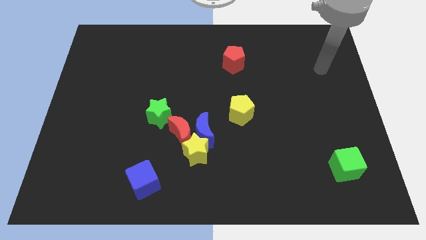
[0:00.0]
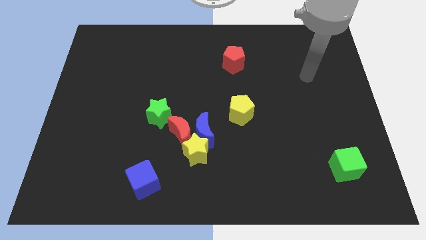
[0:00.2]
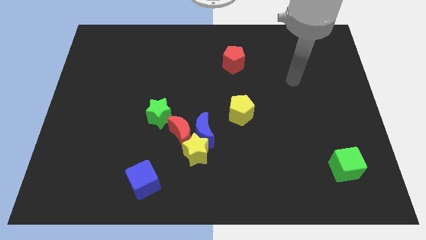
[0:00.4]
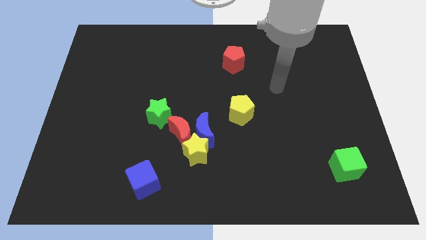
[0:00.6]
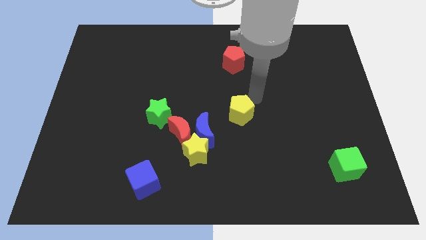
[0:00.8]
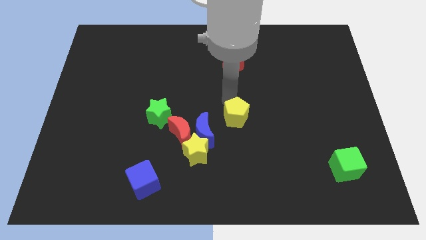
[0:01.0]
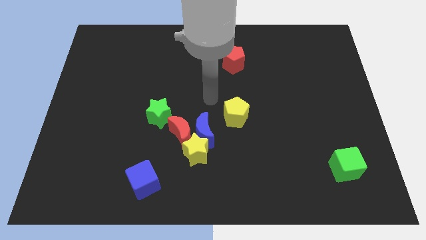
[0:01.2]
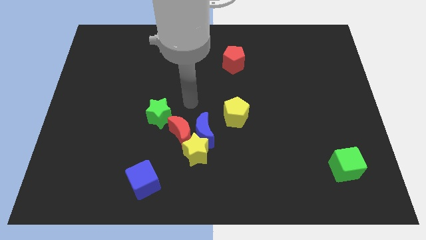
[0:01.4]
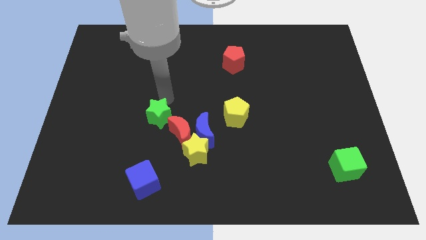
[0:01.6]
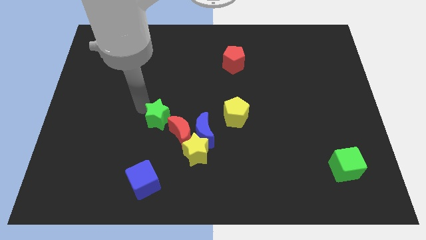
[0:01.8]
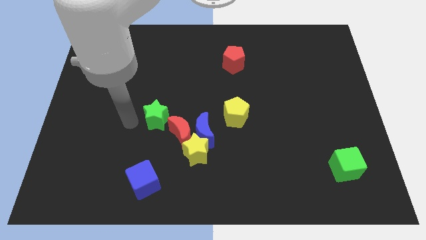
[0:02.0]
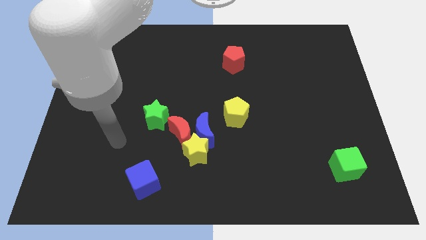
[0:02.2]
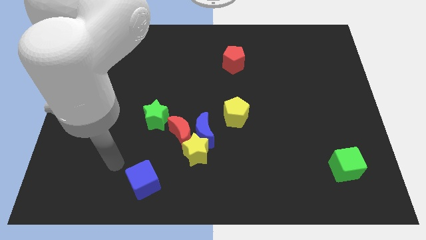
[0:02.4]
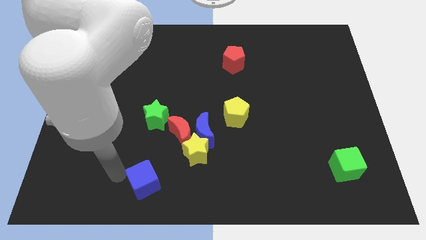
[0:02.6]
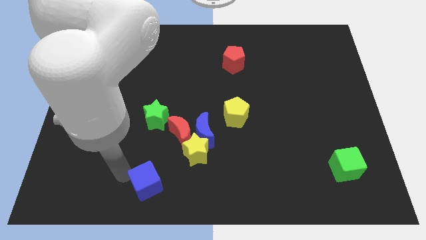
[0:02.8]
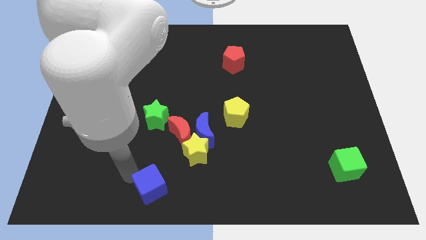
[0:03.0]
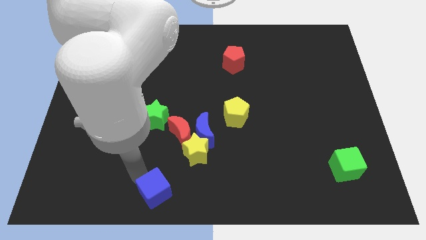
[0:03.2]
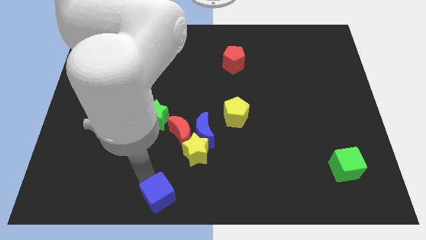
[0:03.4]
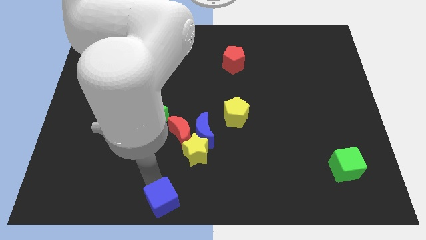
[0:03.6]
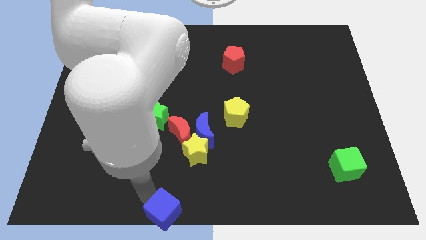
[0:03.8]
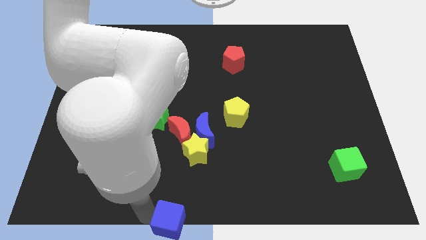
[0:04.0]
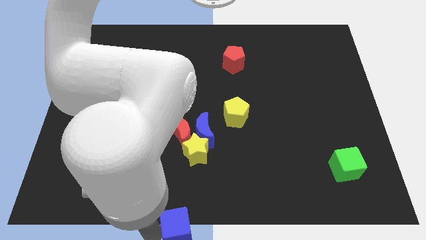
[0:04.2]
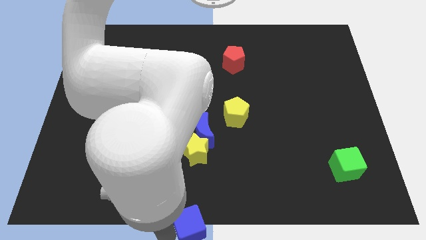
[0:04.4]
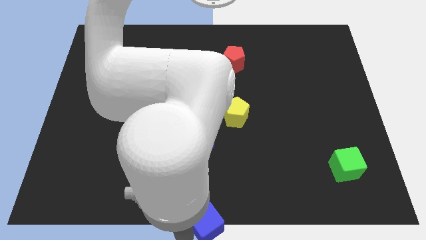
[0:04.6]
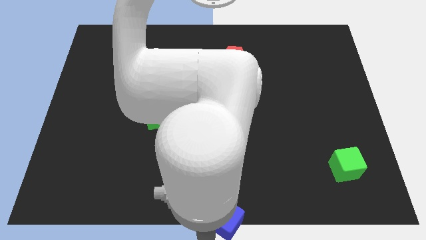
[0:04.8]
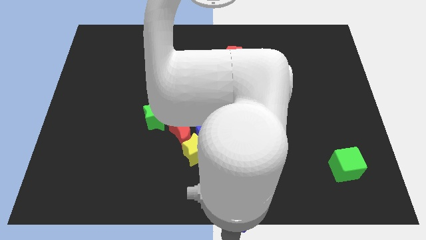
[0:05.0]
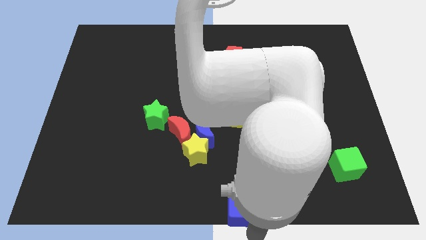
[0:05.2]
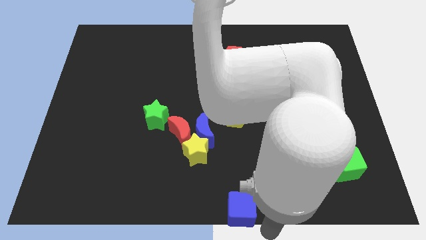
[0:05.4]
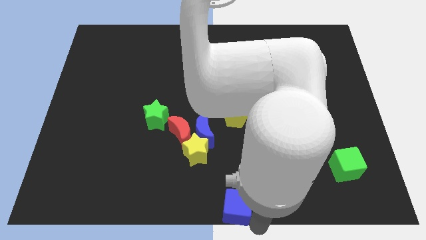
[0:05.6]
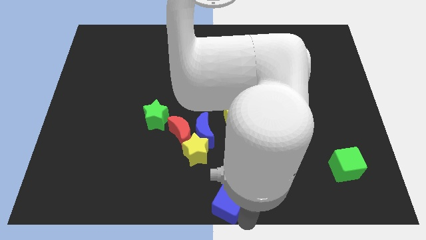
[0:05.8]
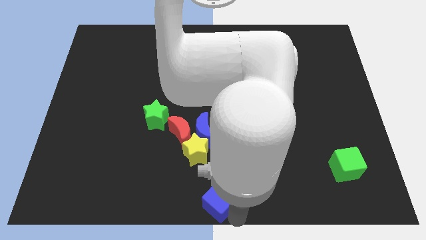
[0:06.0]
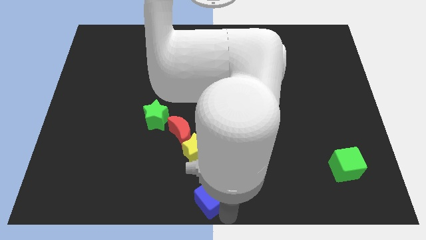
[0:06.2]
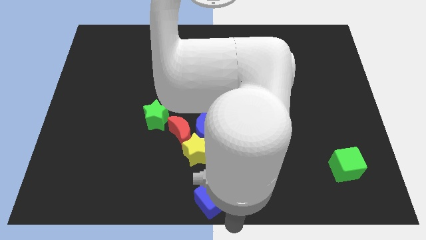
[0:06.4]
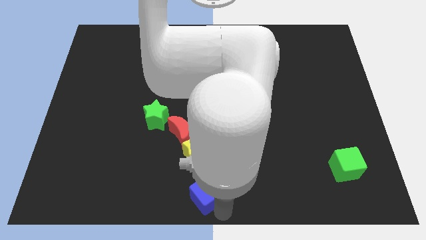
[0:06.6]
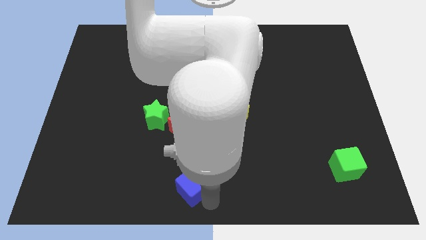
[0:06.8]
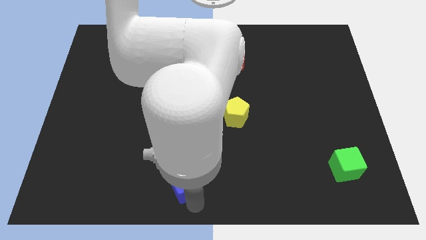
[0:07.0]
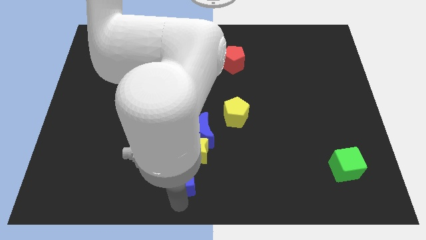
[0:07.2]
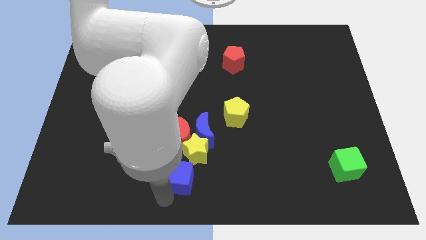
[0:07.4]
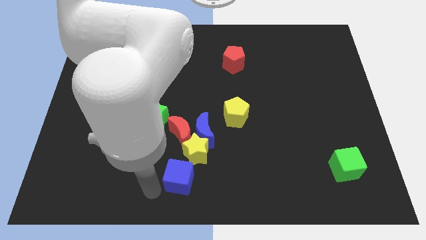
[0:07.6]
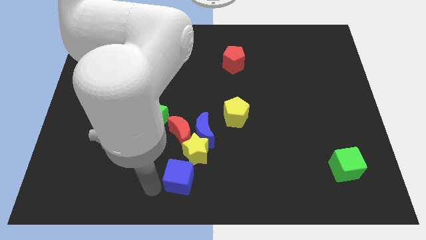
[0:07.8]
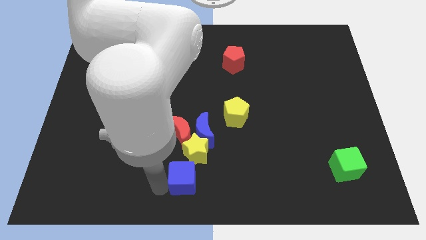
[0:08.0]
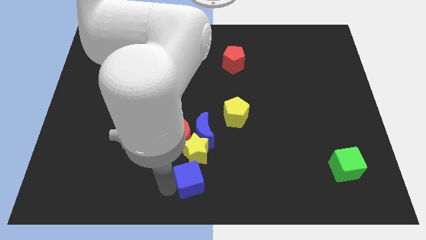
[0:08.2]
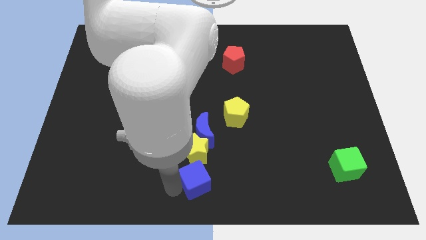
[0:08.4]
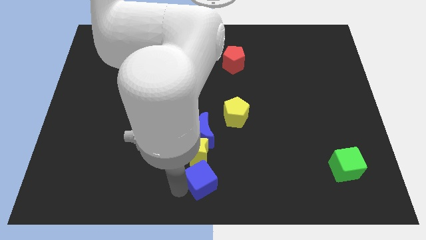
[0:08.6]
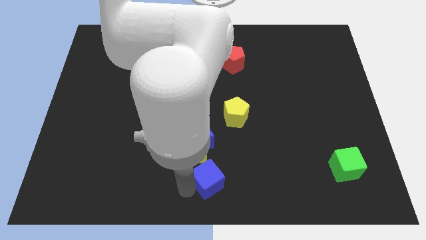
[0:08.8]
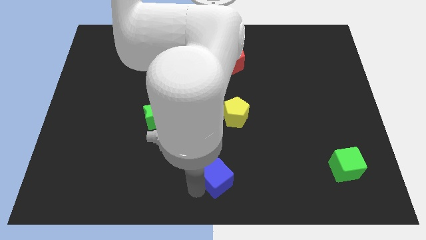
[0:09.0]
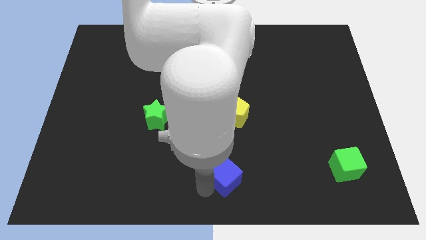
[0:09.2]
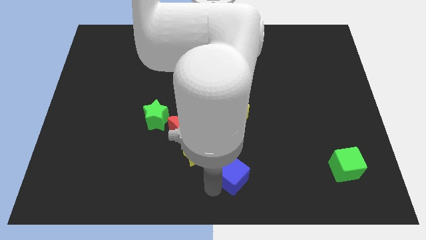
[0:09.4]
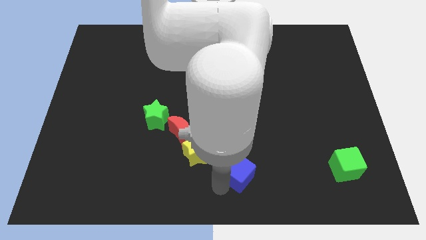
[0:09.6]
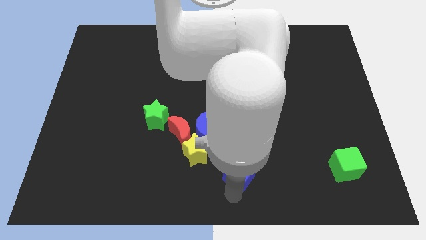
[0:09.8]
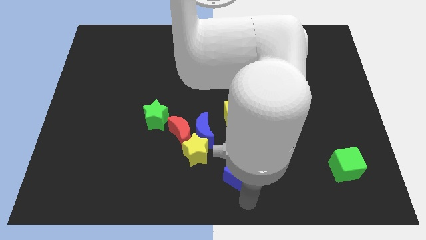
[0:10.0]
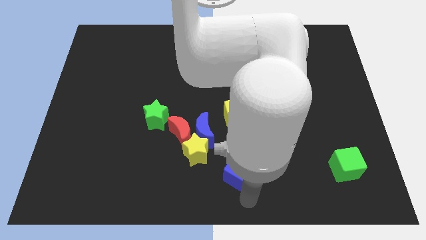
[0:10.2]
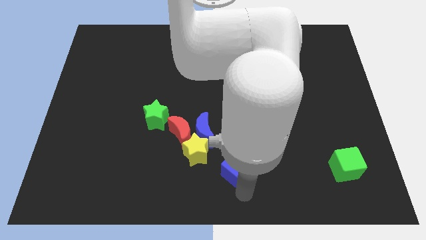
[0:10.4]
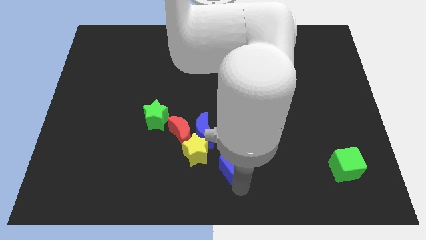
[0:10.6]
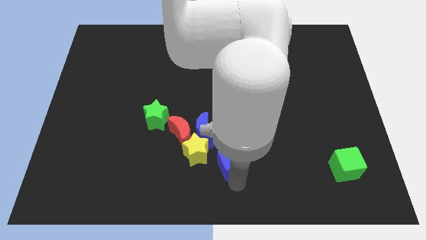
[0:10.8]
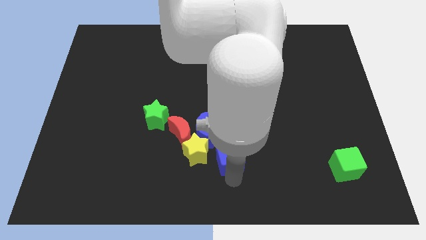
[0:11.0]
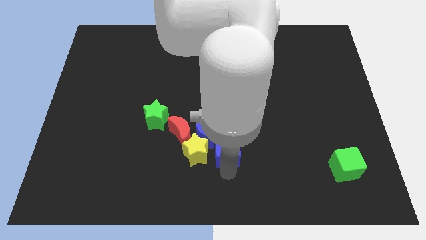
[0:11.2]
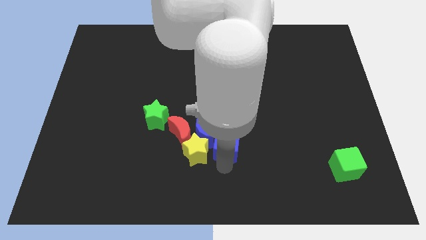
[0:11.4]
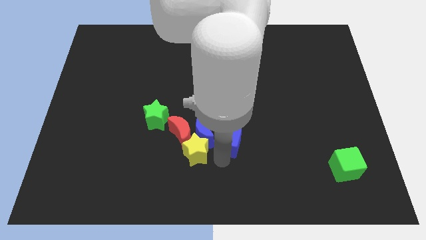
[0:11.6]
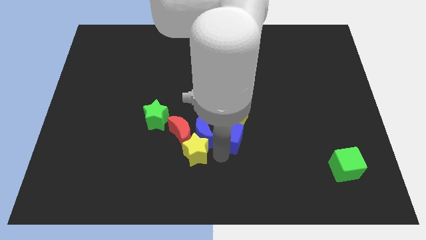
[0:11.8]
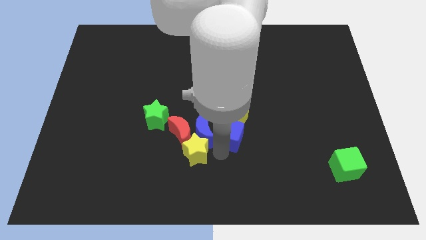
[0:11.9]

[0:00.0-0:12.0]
push the blue cube close to the yellow pentagon

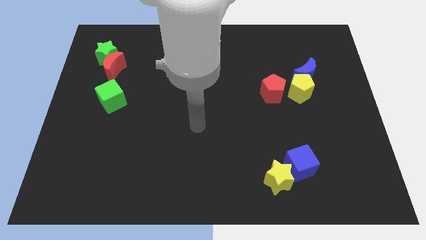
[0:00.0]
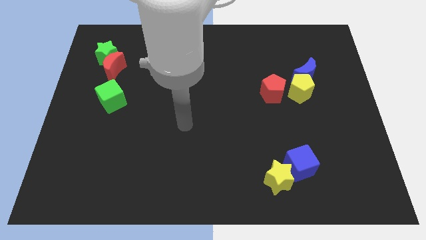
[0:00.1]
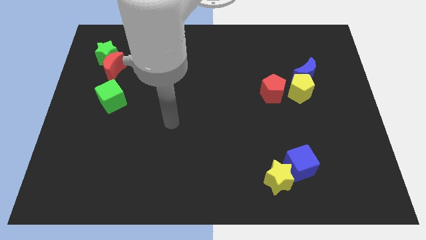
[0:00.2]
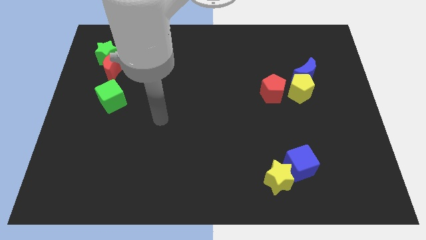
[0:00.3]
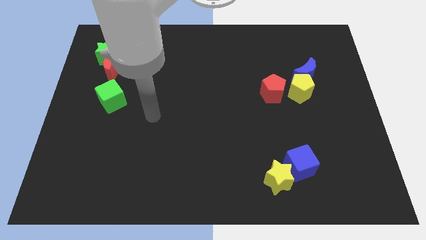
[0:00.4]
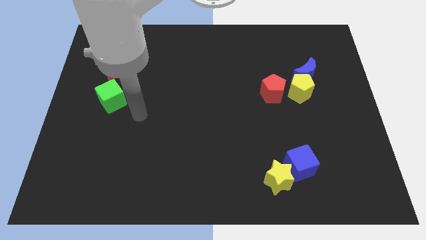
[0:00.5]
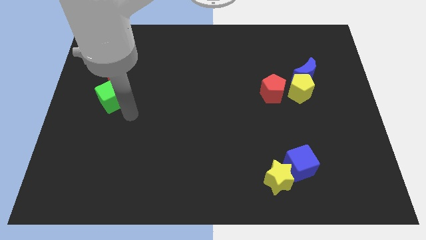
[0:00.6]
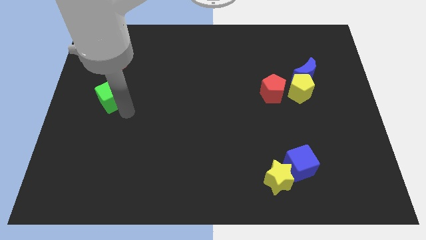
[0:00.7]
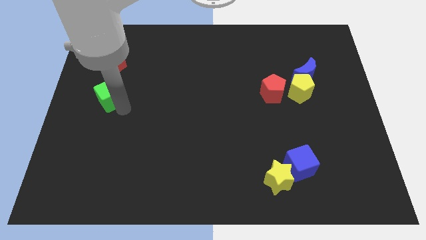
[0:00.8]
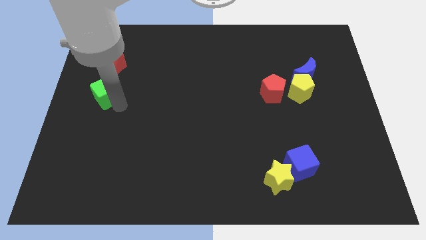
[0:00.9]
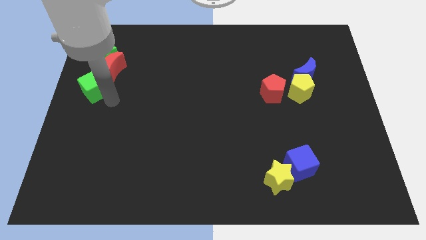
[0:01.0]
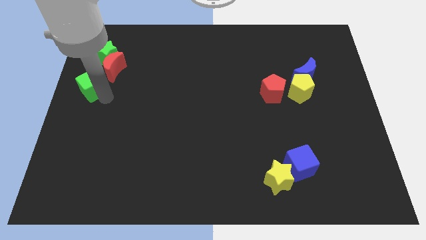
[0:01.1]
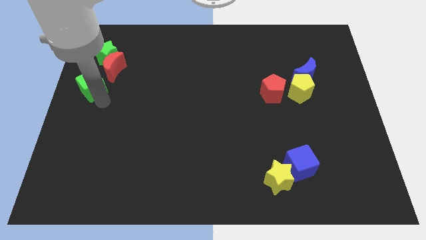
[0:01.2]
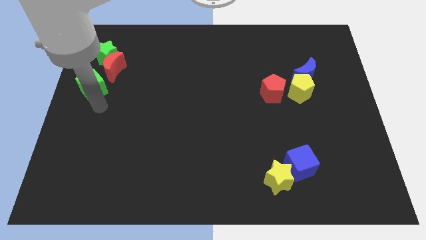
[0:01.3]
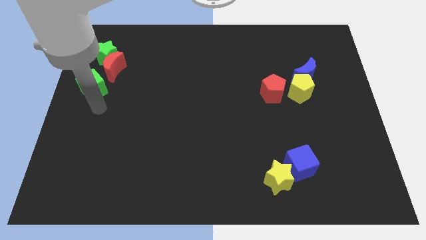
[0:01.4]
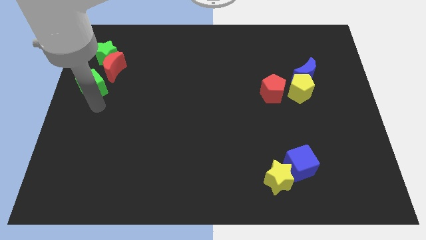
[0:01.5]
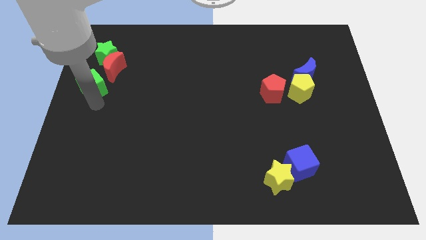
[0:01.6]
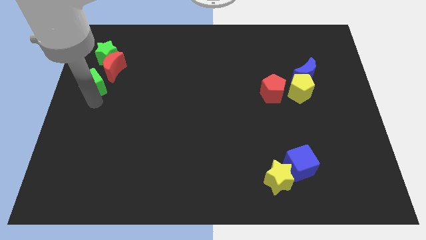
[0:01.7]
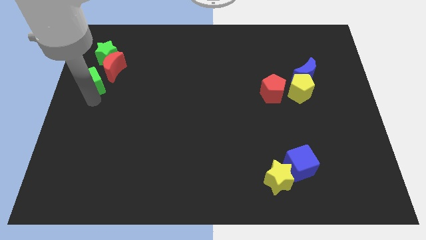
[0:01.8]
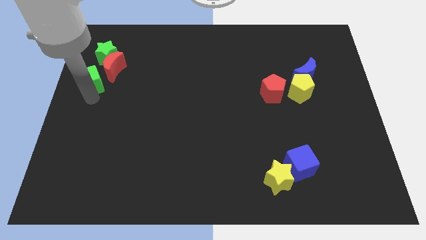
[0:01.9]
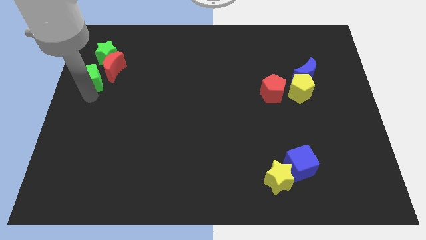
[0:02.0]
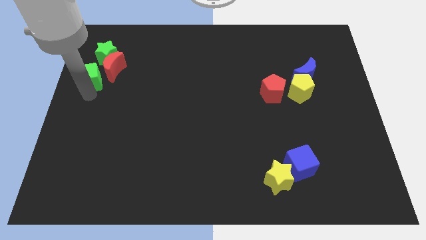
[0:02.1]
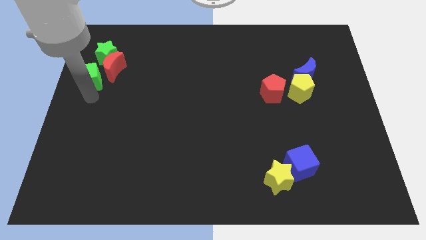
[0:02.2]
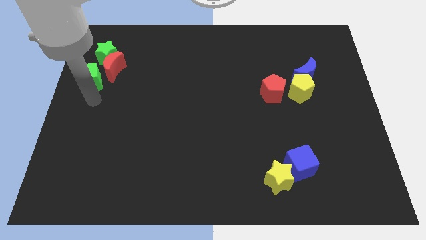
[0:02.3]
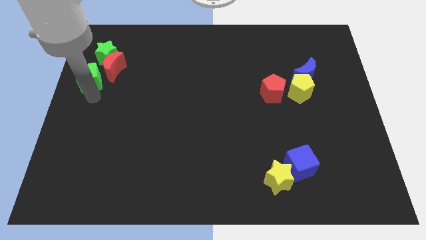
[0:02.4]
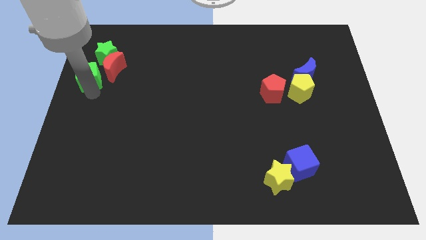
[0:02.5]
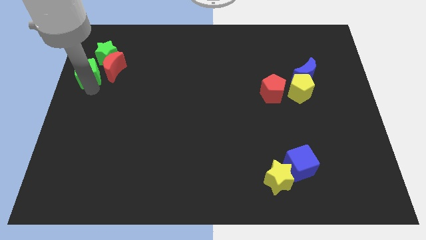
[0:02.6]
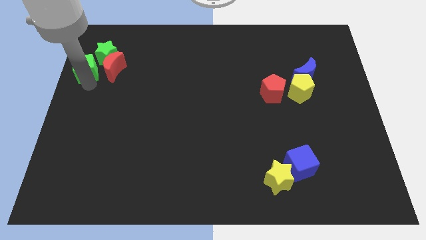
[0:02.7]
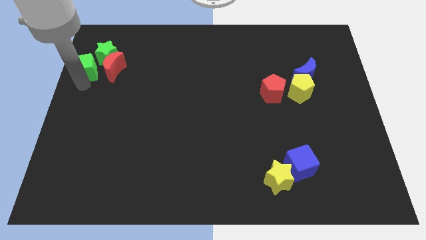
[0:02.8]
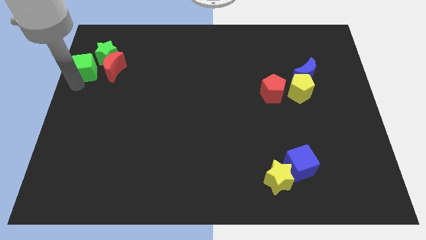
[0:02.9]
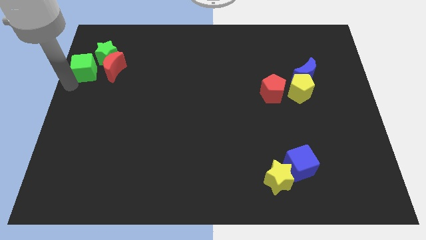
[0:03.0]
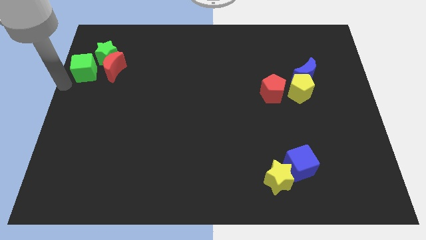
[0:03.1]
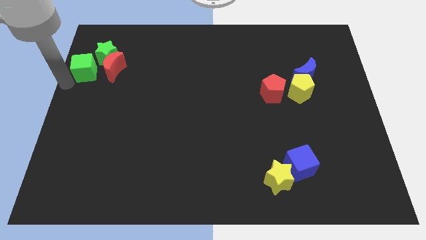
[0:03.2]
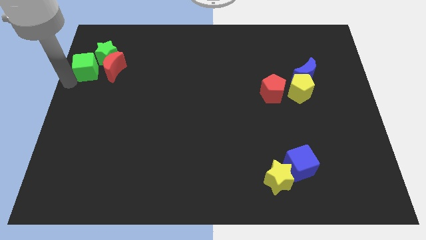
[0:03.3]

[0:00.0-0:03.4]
push the green cube next to the green star
